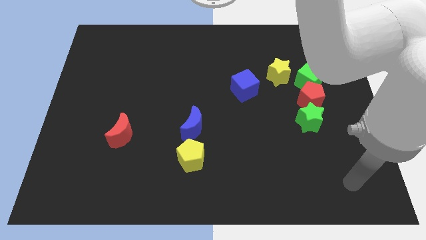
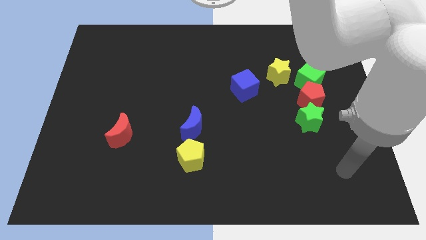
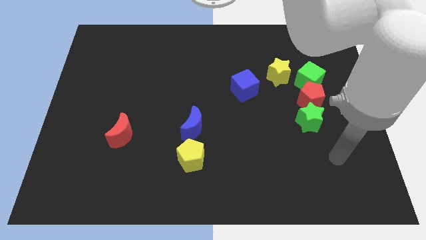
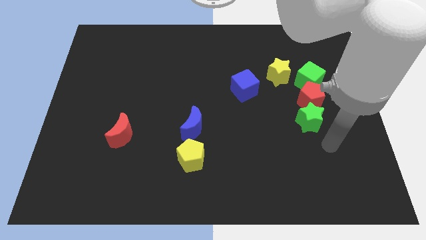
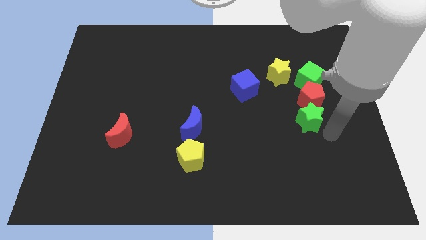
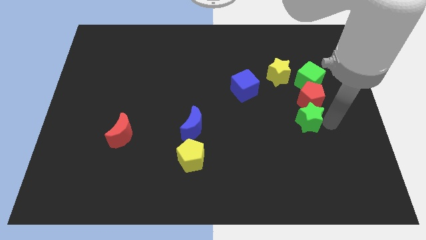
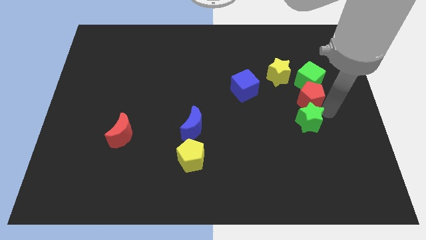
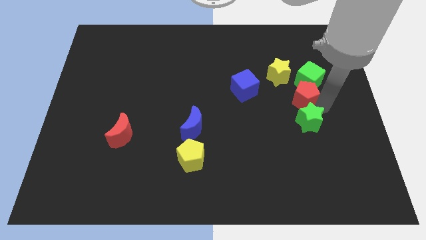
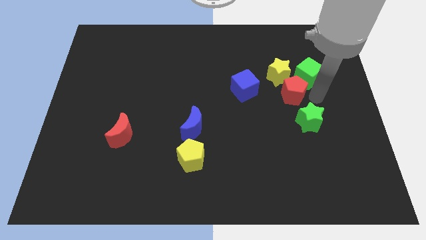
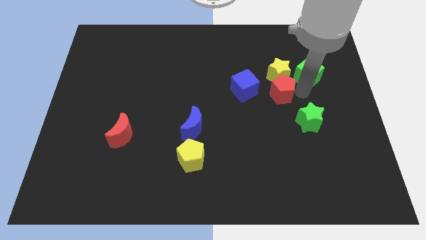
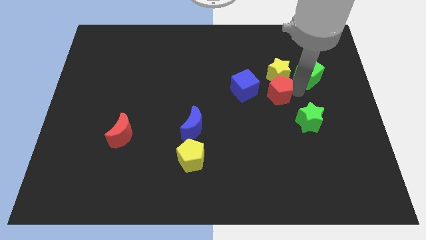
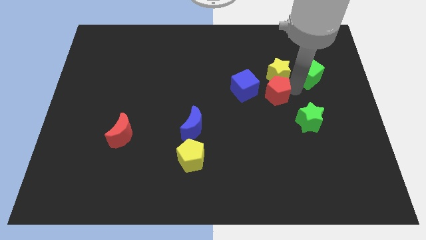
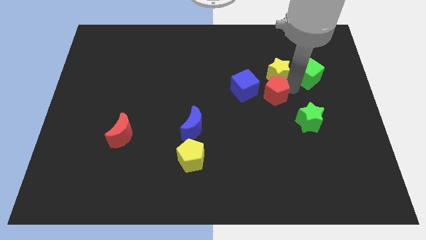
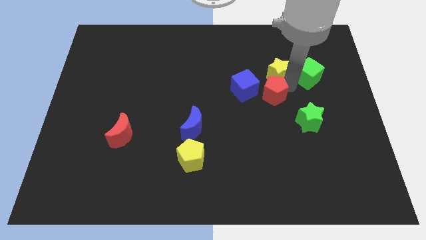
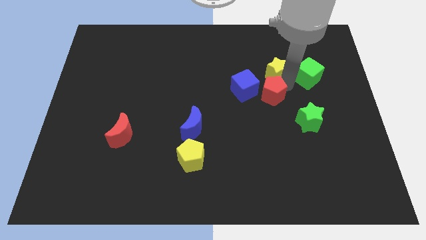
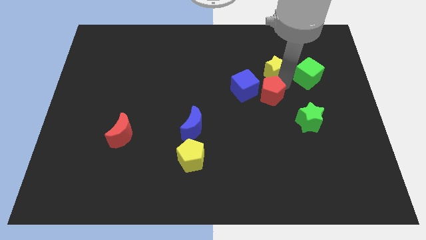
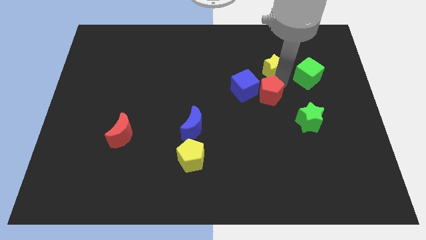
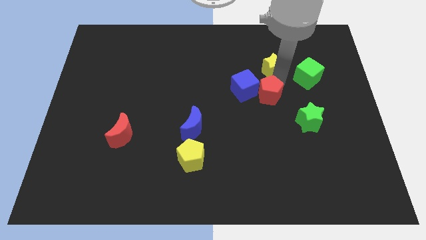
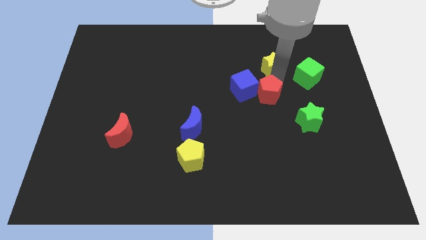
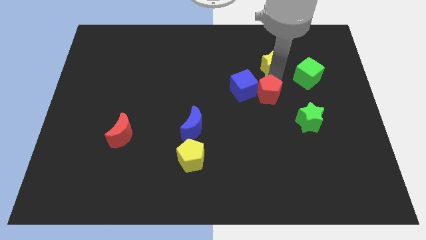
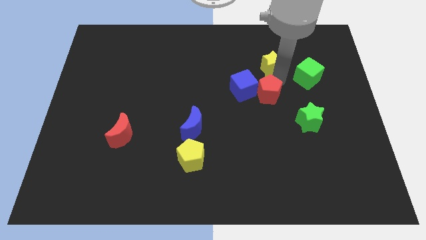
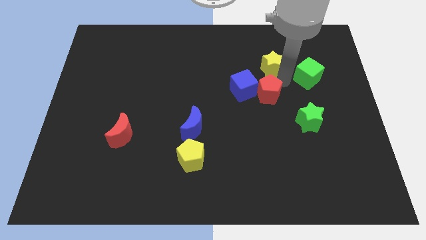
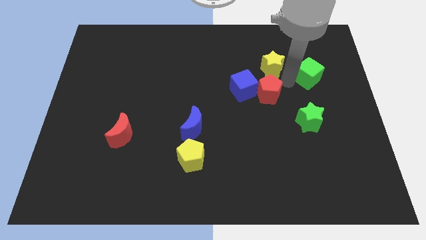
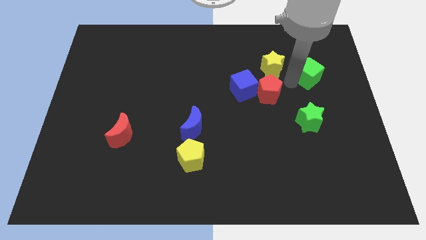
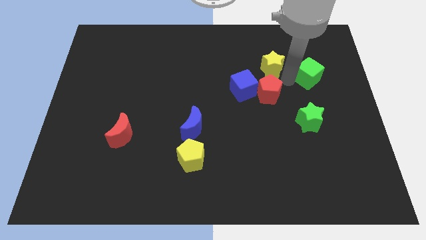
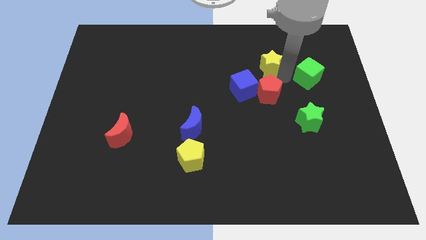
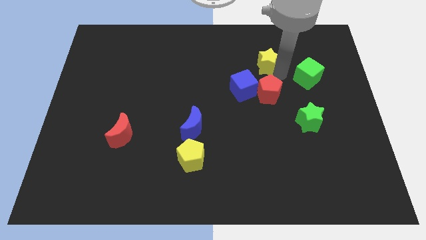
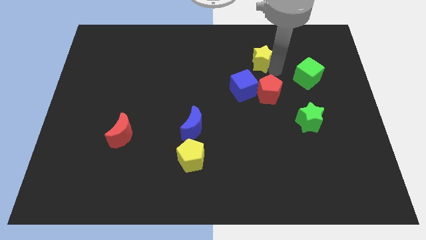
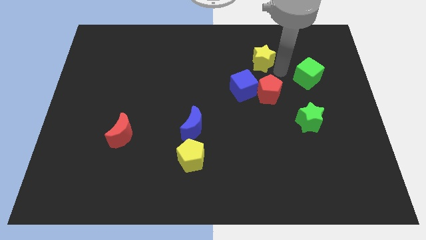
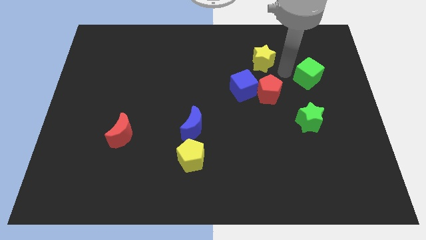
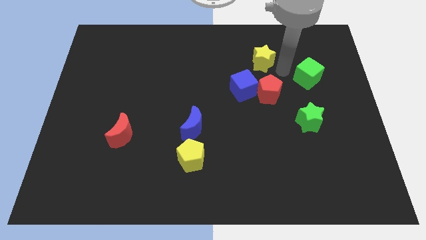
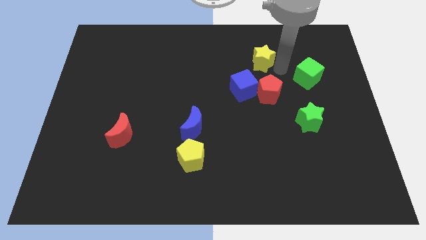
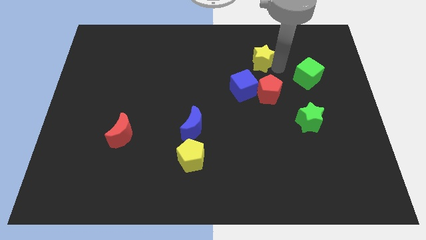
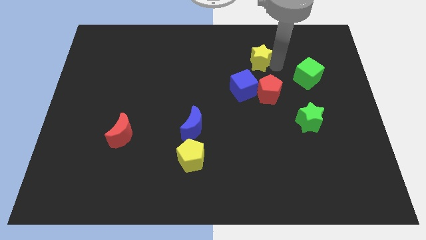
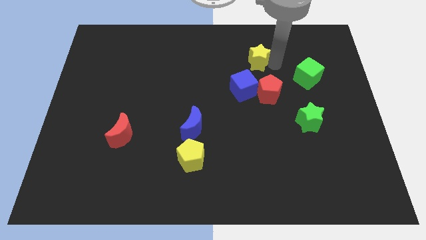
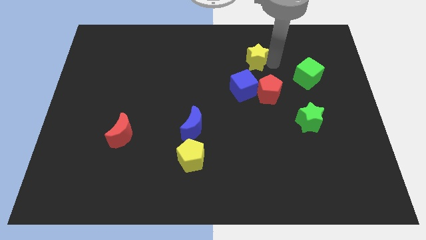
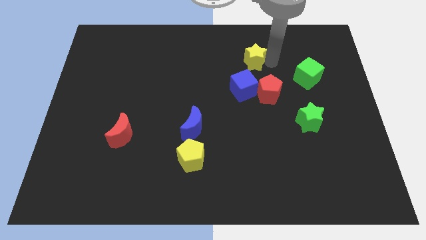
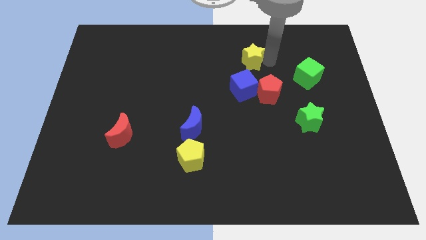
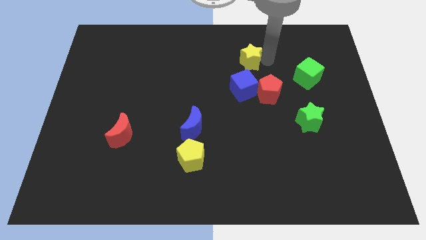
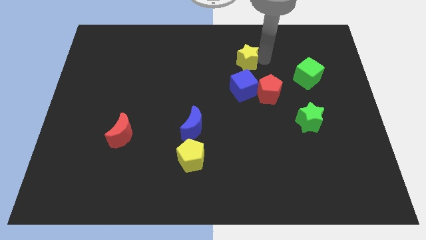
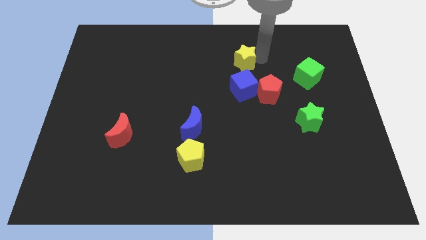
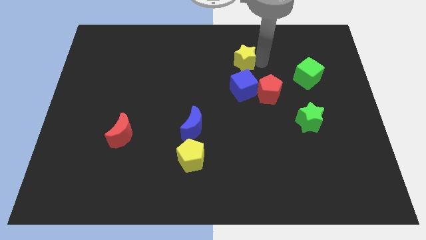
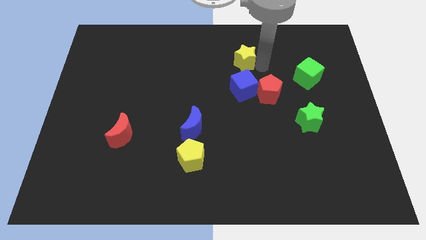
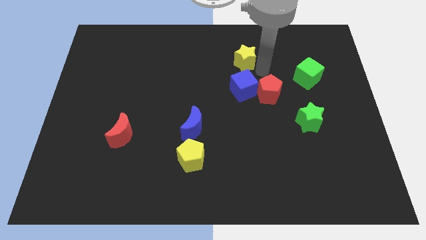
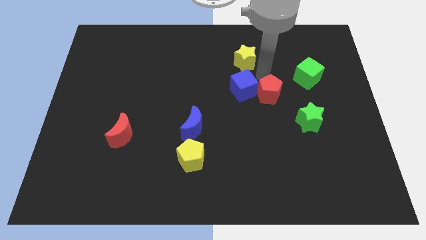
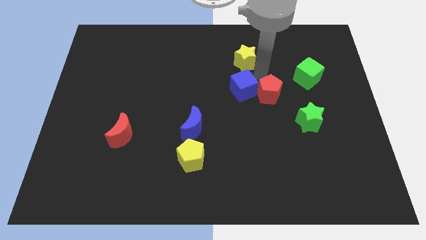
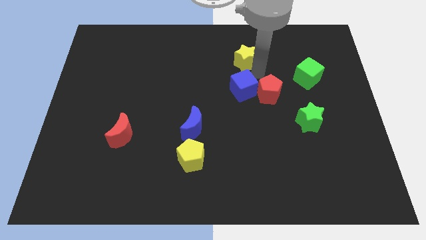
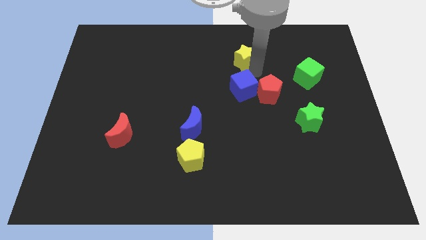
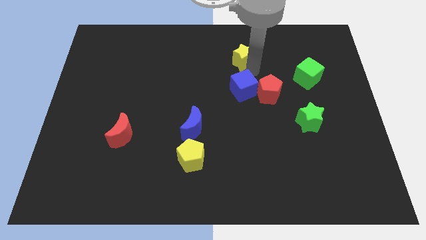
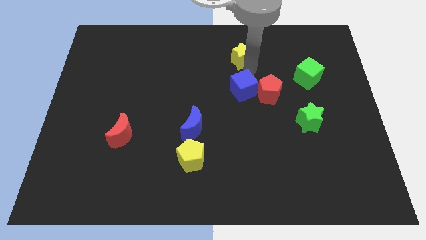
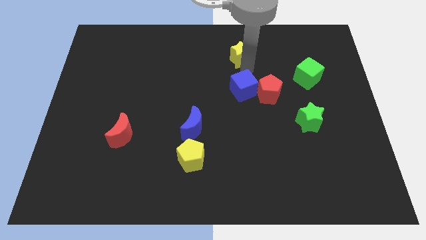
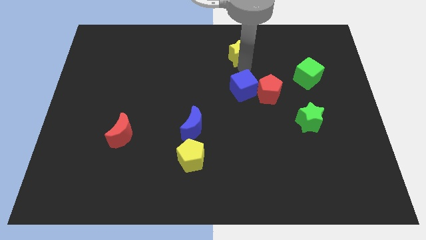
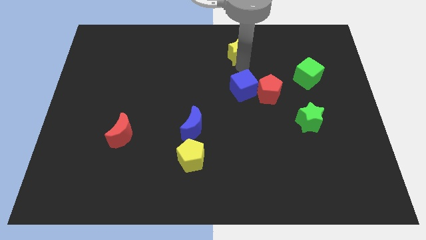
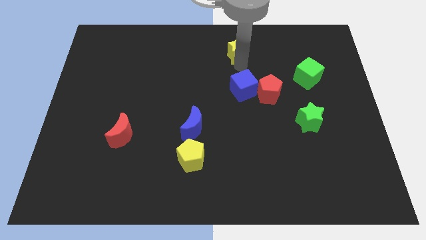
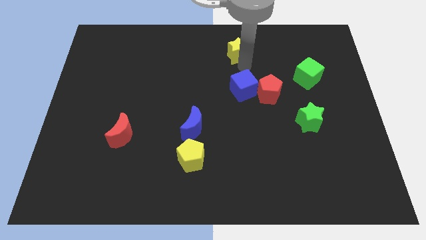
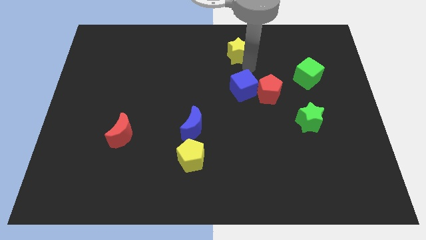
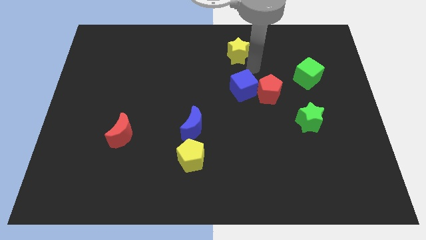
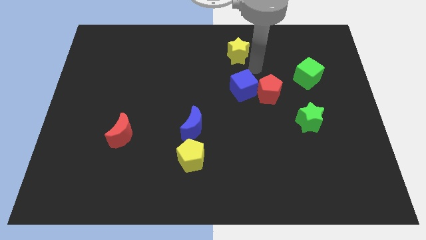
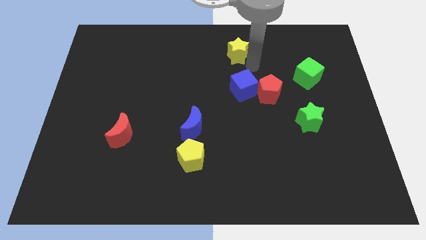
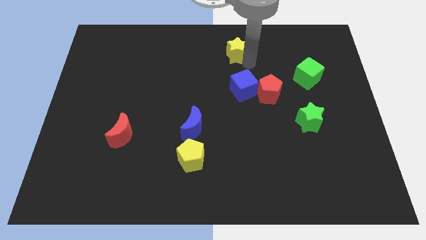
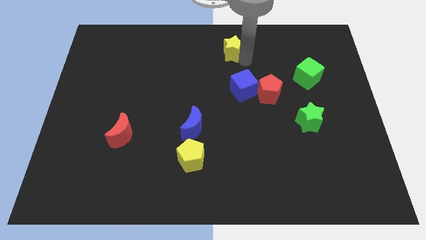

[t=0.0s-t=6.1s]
push the yellow star to the top side
